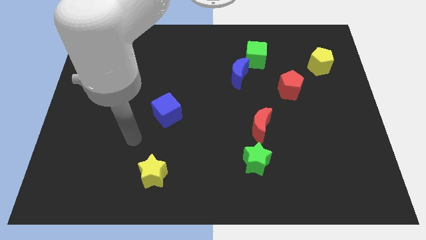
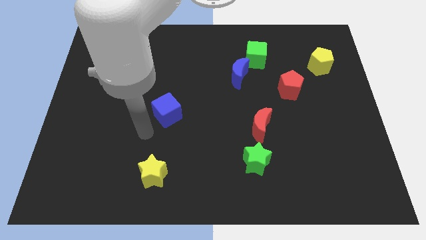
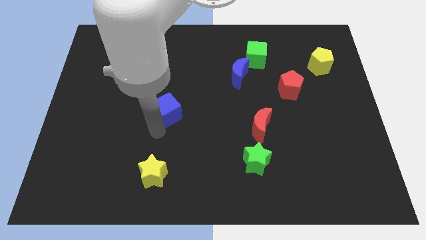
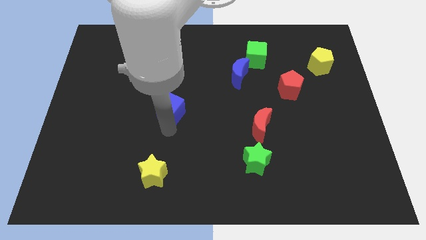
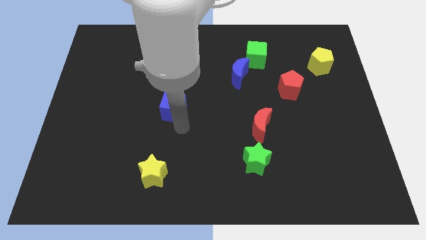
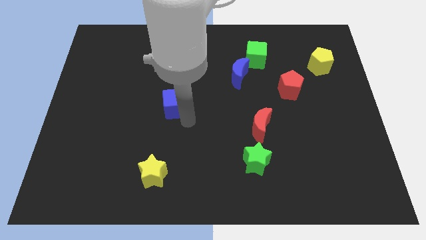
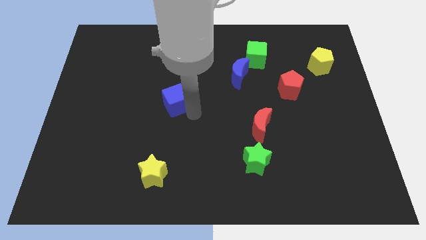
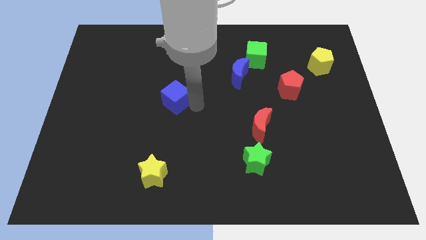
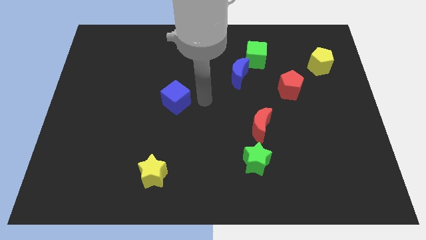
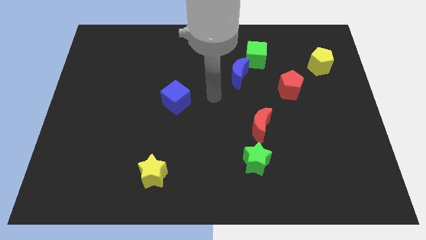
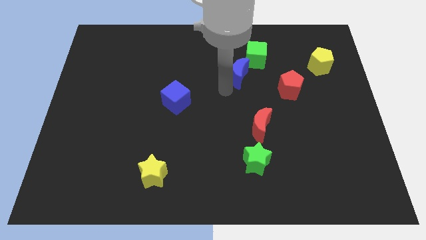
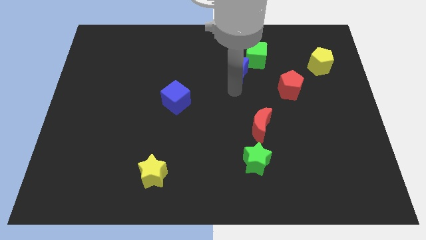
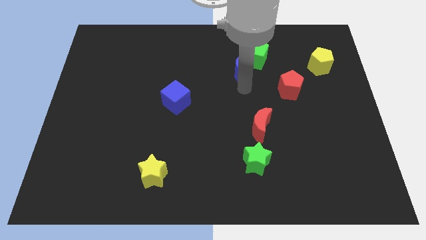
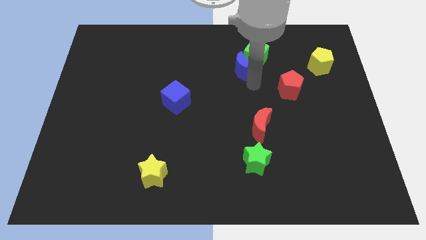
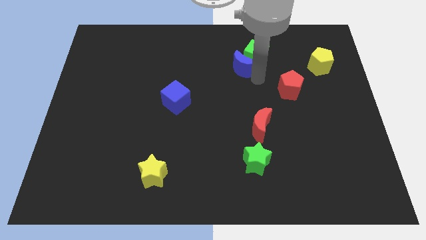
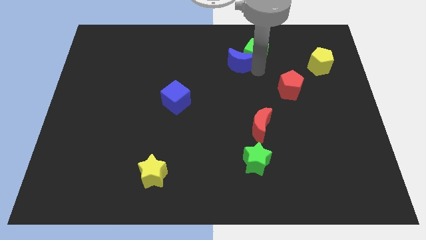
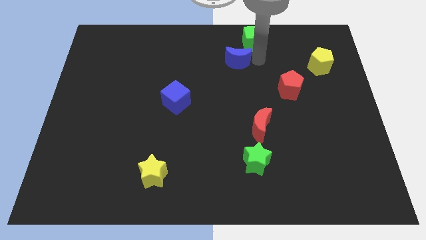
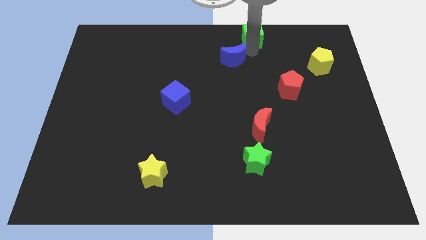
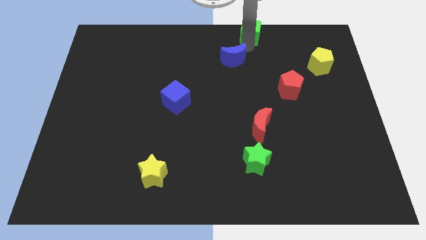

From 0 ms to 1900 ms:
move the blue moon away from the green cube

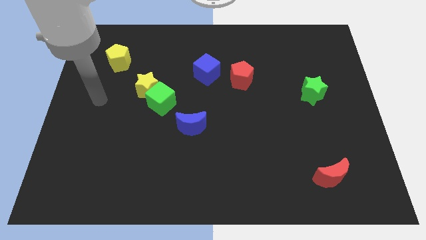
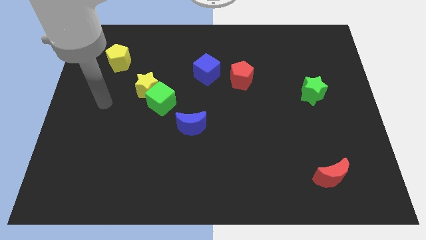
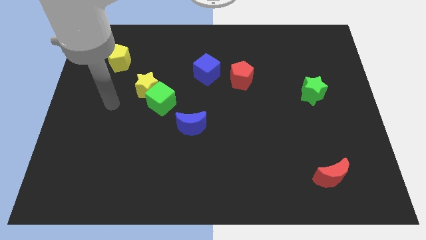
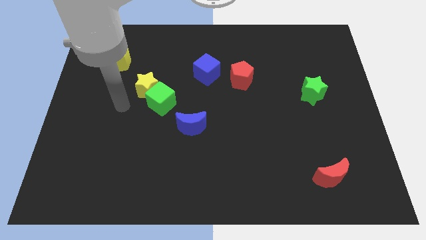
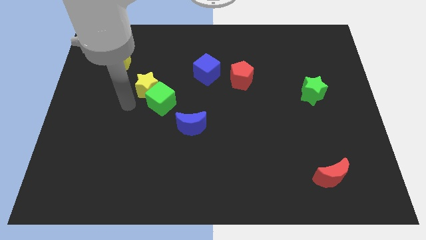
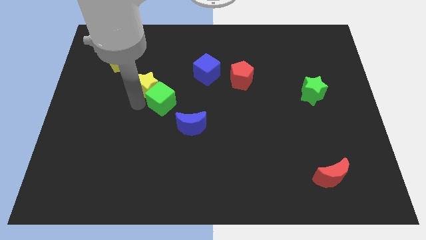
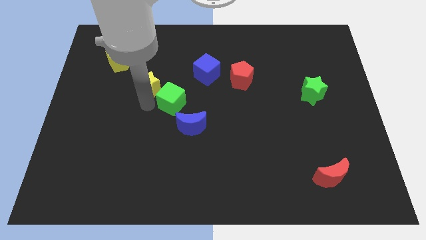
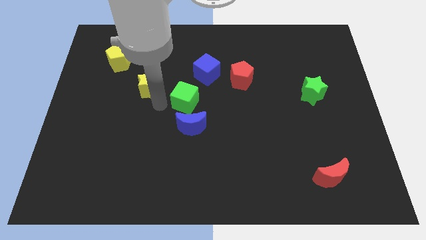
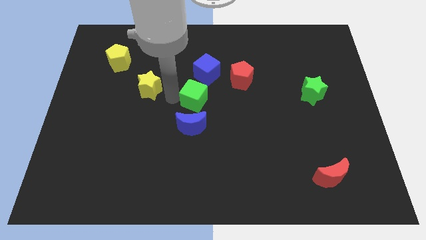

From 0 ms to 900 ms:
move the yellow star away from the green cube

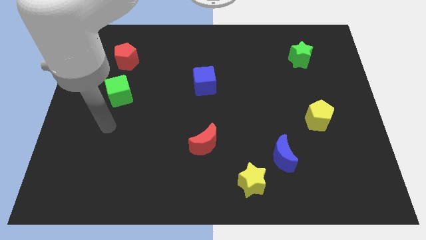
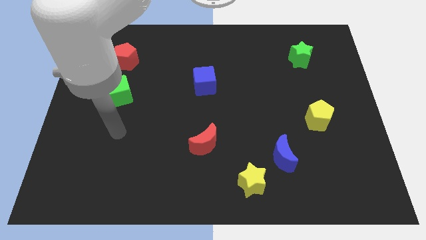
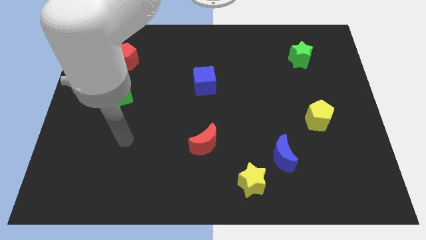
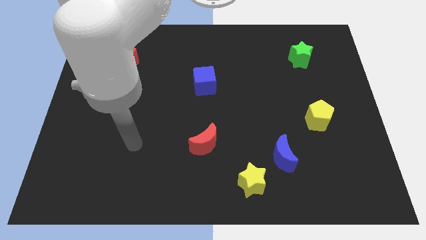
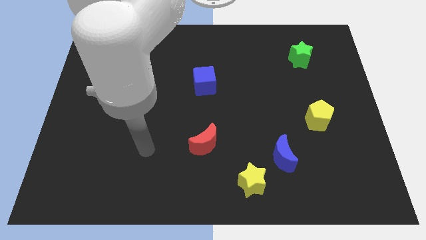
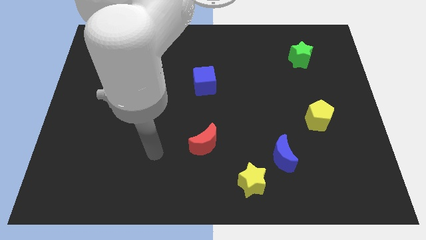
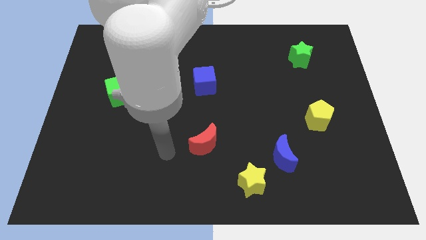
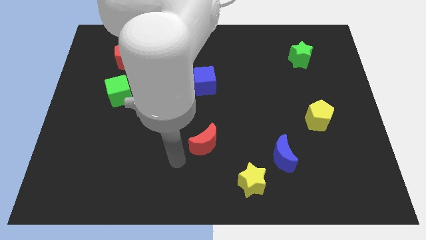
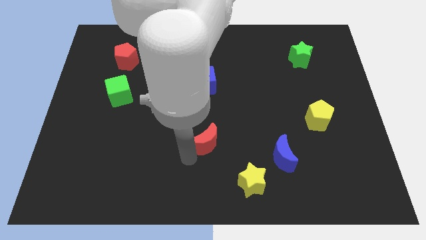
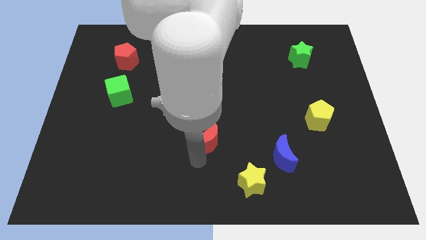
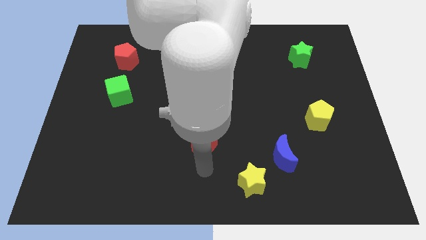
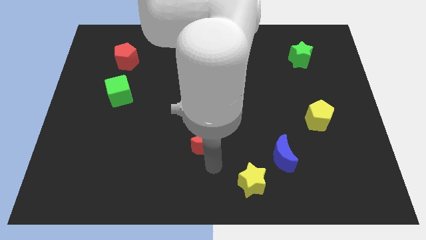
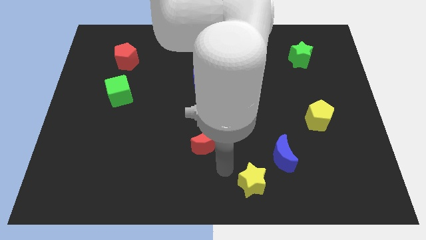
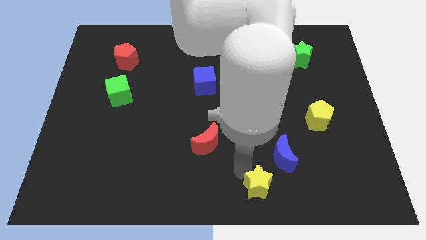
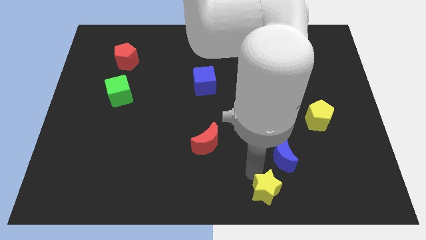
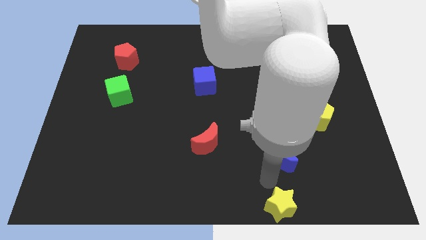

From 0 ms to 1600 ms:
move the blue moon away from the yellow star

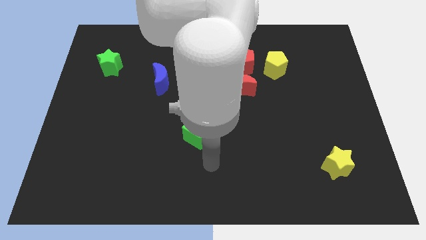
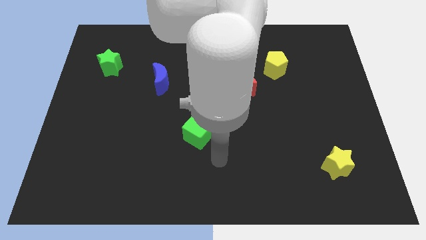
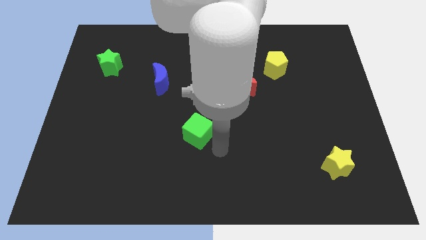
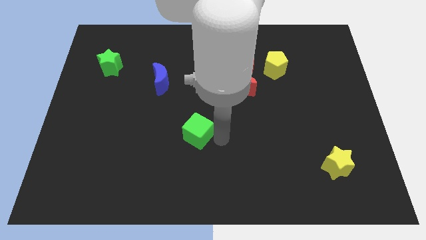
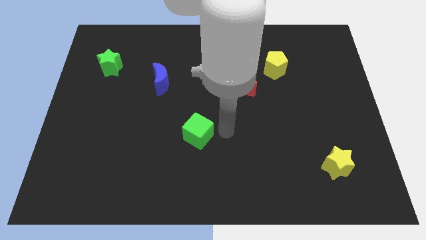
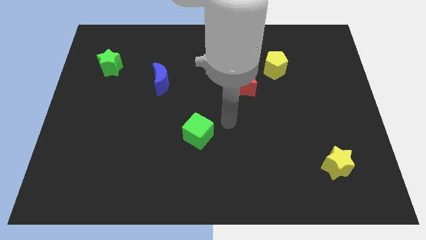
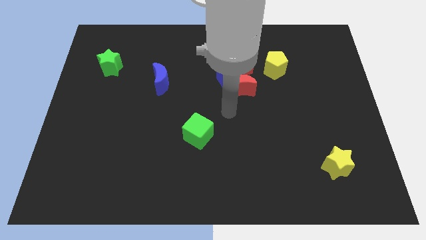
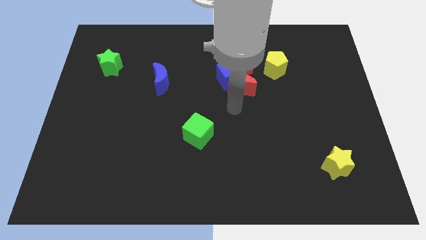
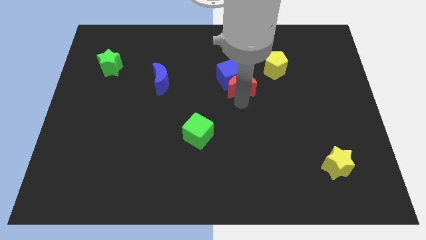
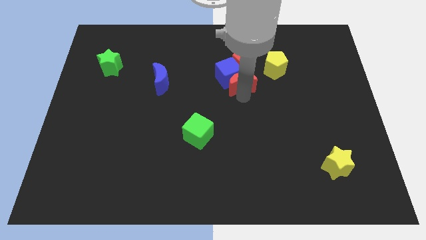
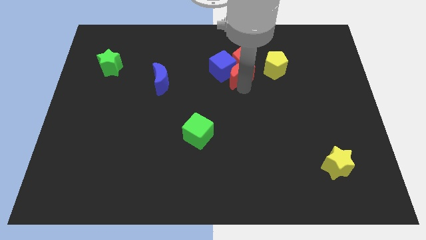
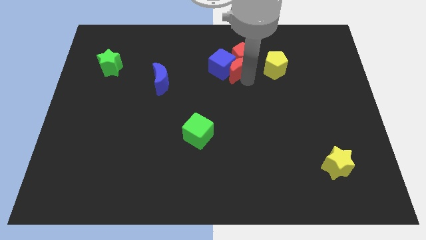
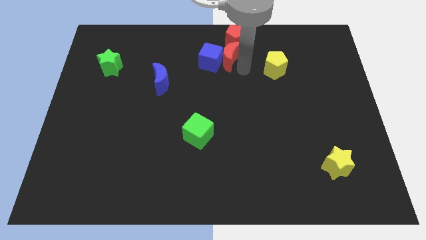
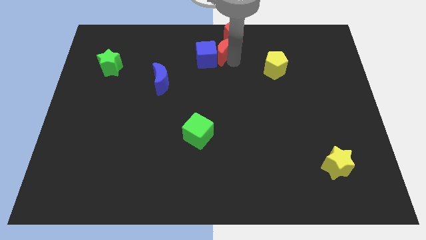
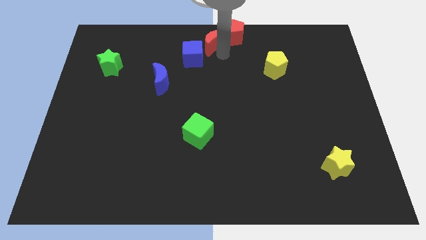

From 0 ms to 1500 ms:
move the blue cube away from the red moon and red pentagon

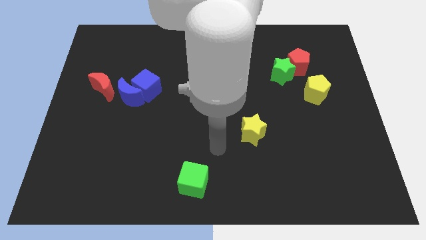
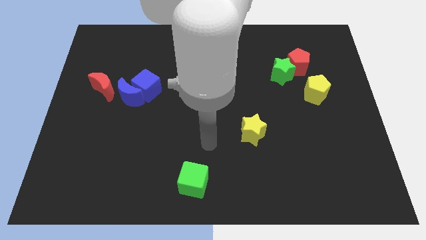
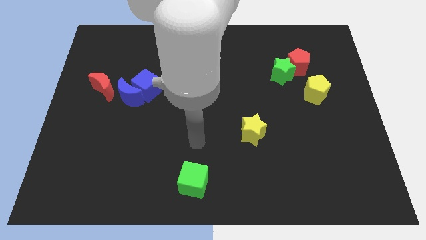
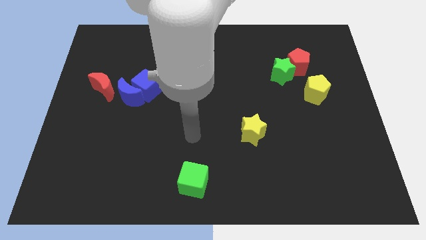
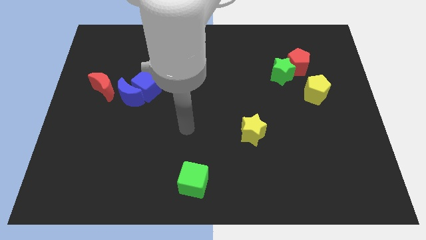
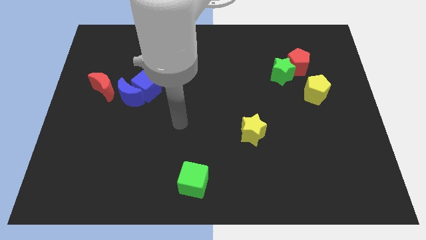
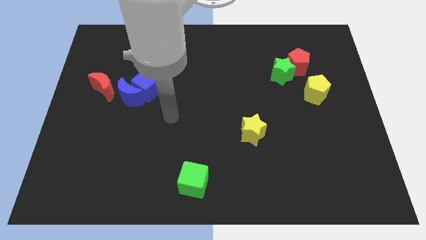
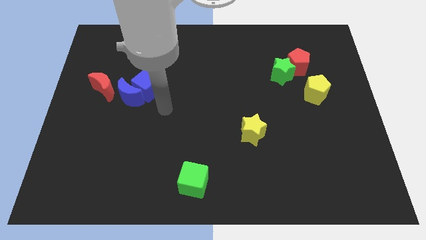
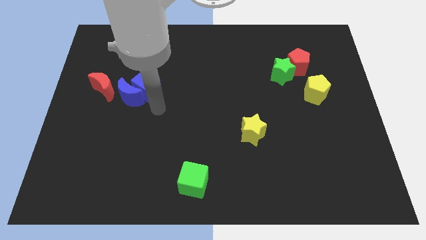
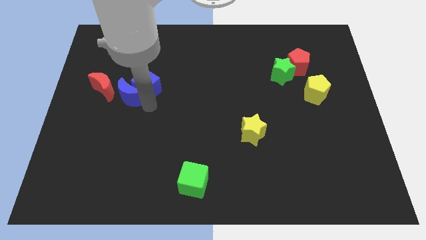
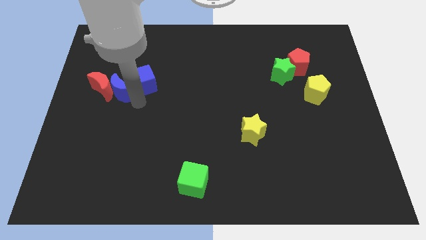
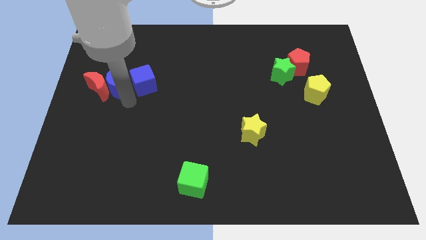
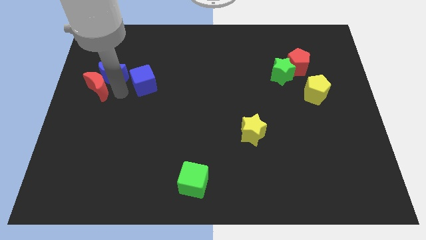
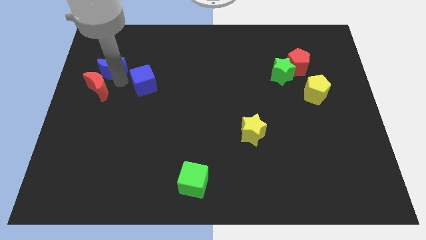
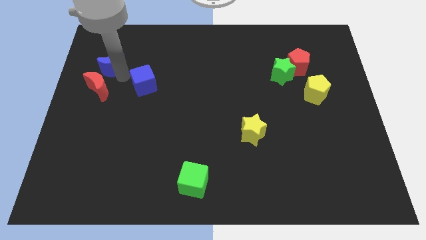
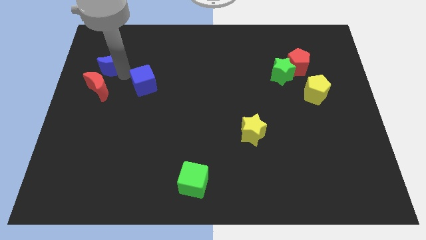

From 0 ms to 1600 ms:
move the blue cube away from the blue moon

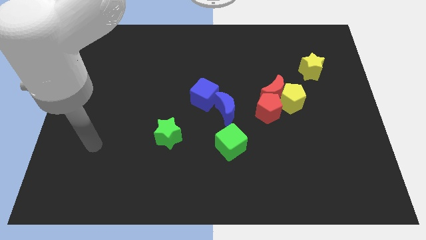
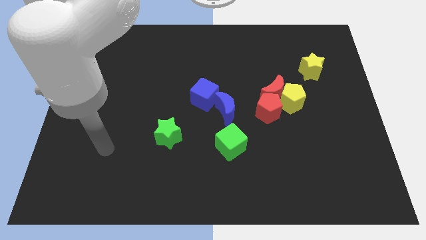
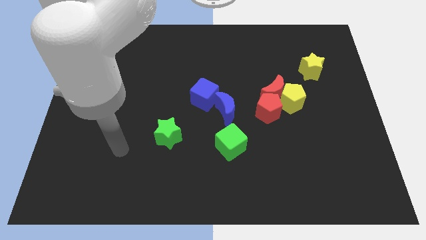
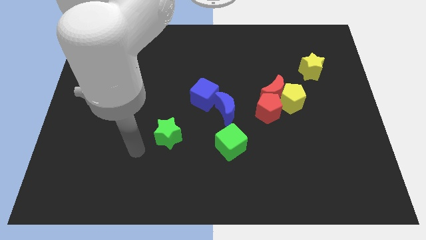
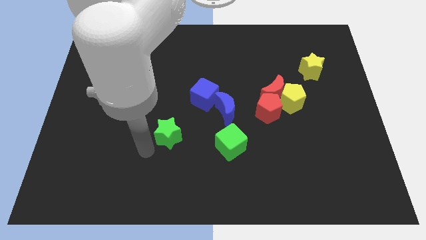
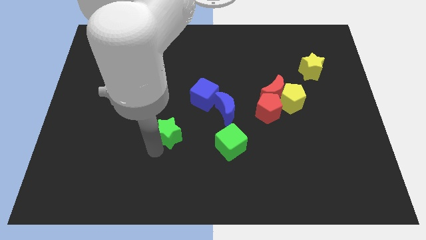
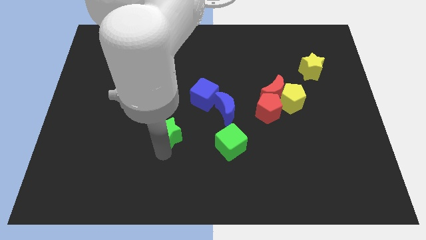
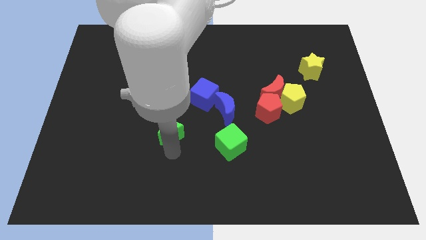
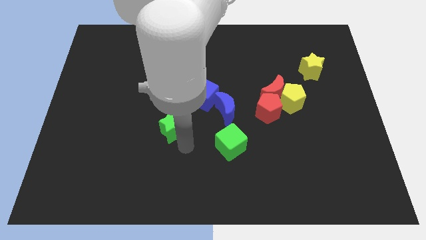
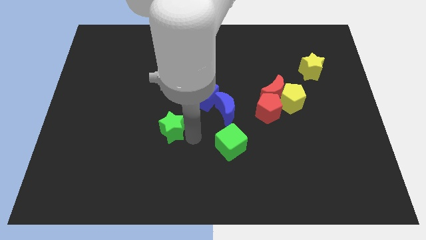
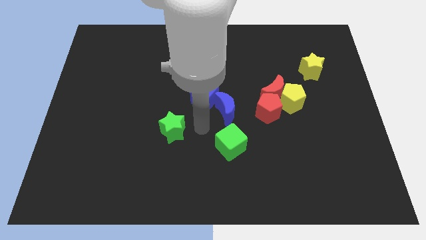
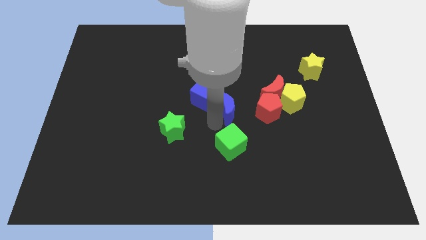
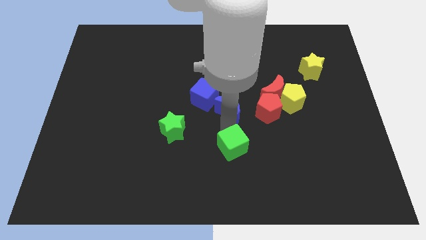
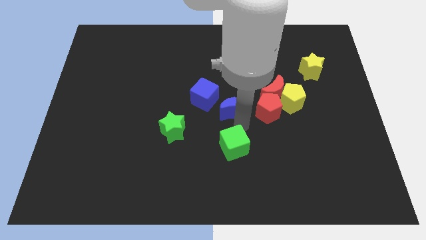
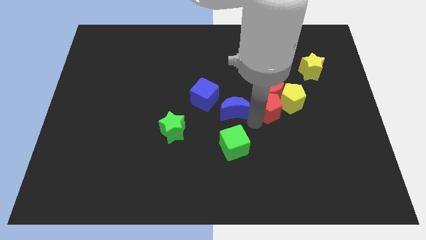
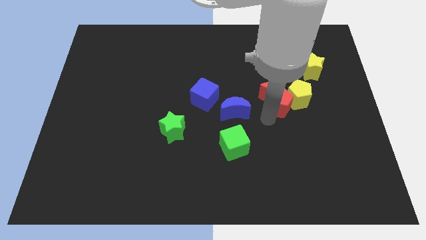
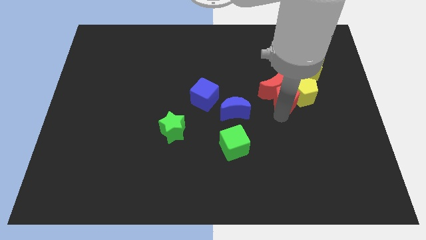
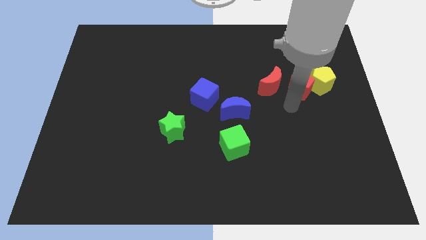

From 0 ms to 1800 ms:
pull the red moon apart from the yellow pentagon and red pentagon
